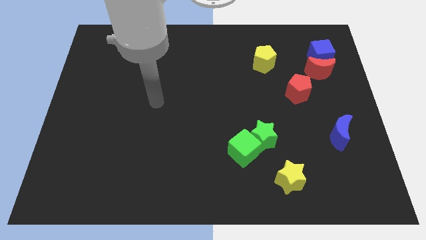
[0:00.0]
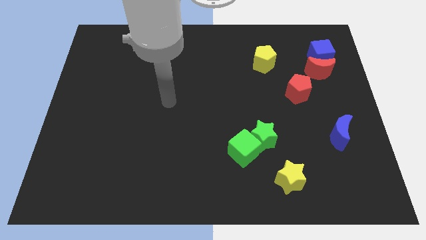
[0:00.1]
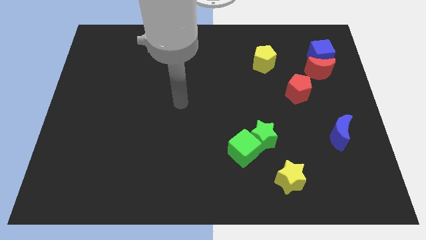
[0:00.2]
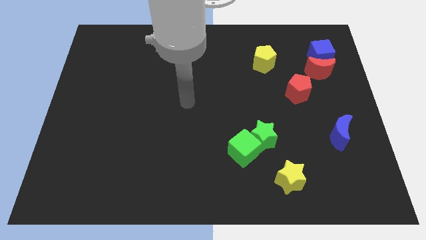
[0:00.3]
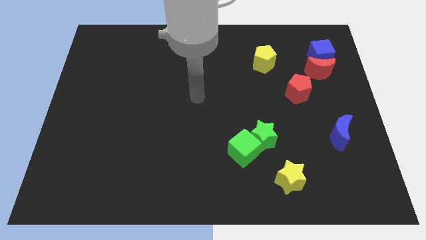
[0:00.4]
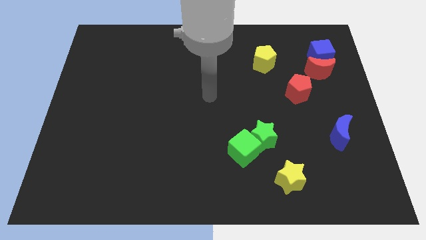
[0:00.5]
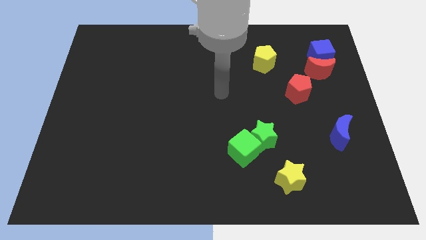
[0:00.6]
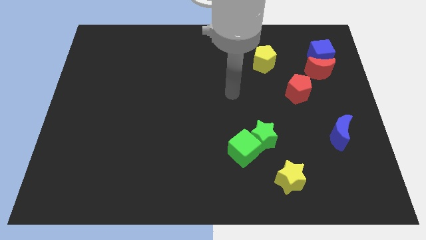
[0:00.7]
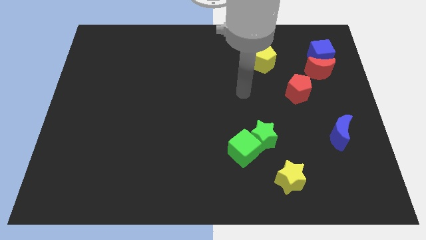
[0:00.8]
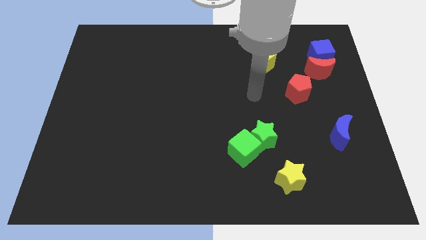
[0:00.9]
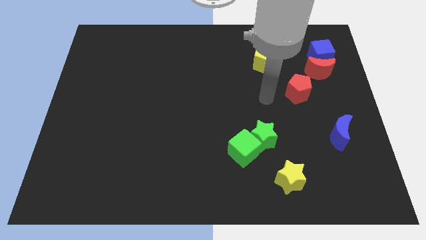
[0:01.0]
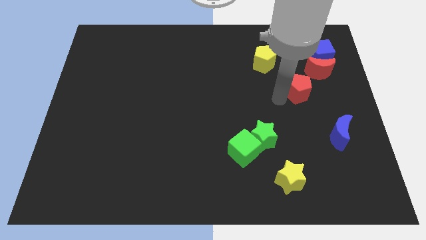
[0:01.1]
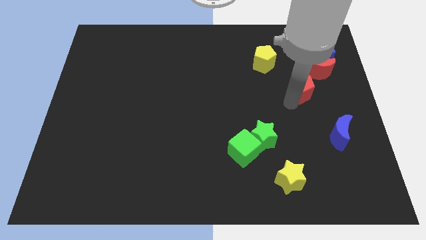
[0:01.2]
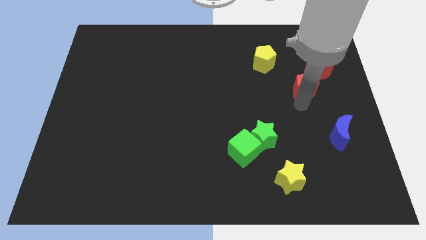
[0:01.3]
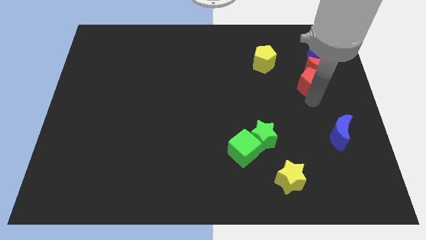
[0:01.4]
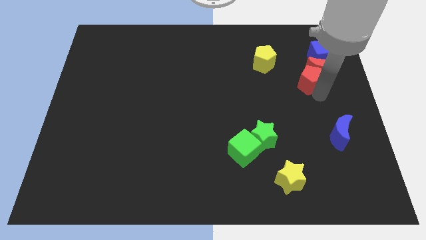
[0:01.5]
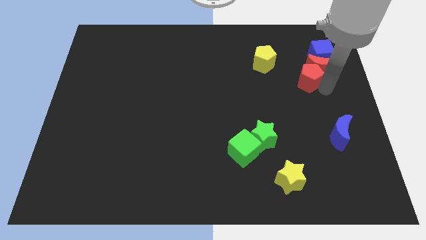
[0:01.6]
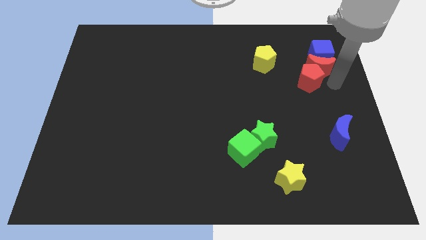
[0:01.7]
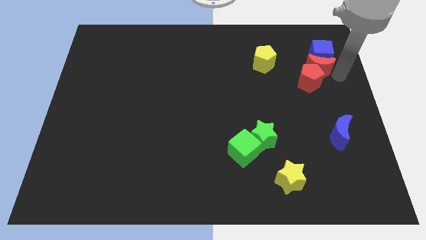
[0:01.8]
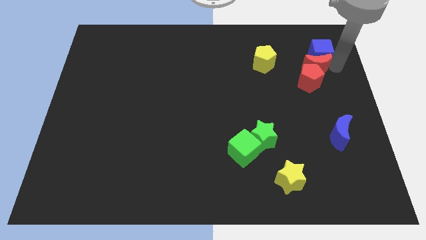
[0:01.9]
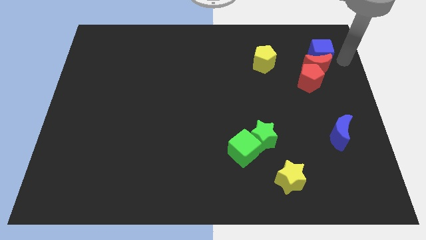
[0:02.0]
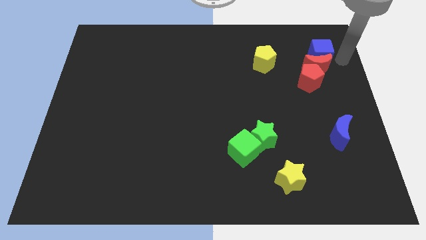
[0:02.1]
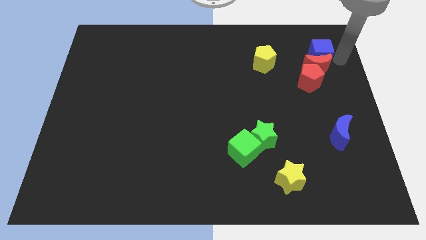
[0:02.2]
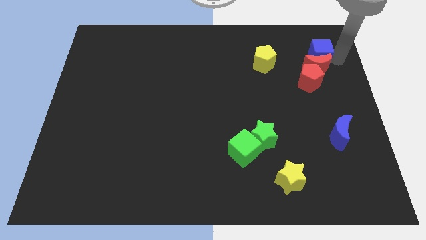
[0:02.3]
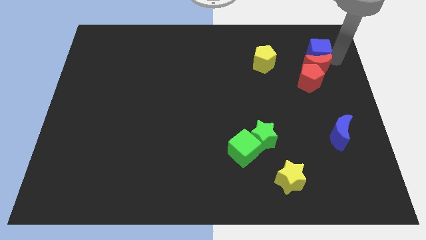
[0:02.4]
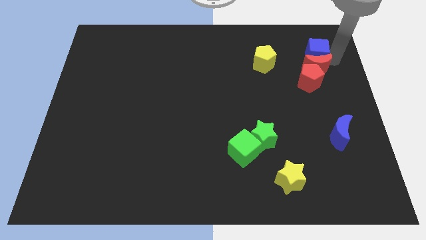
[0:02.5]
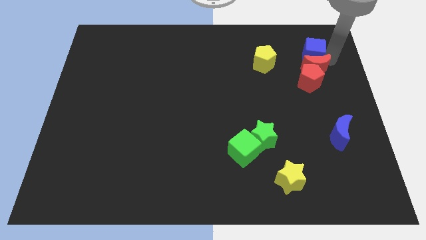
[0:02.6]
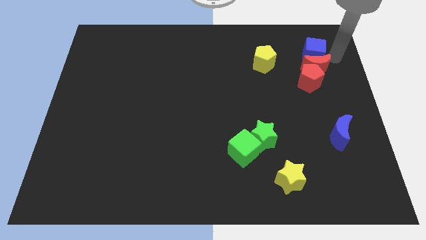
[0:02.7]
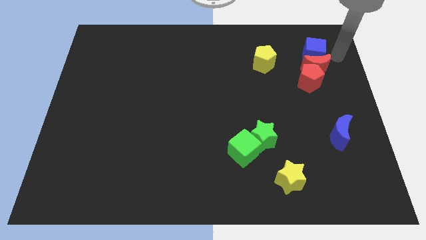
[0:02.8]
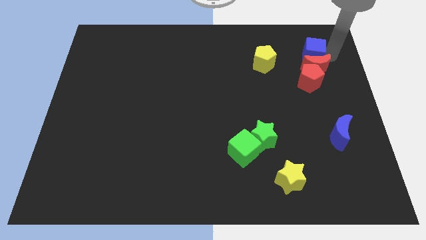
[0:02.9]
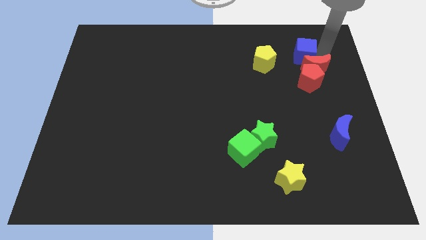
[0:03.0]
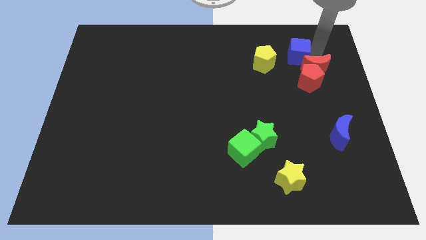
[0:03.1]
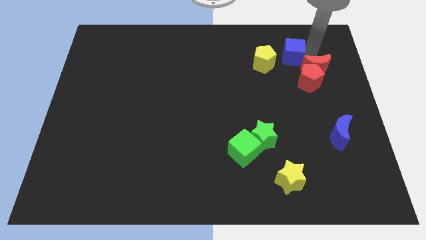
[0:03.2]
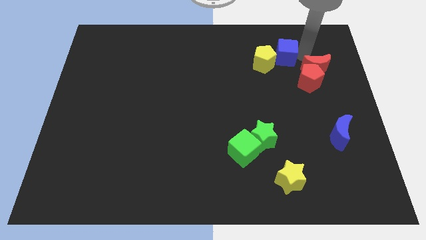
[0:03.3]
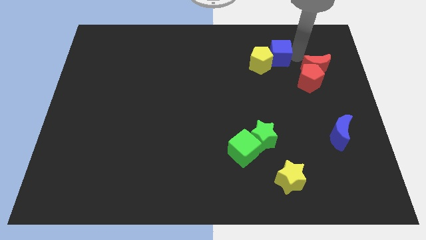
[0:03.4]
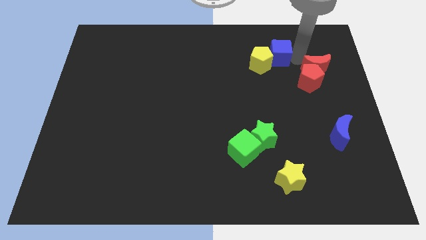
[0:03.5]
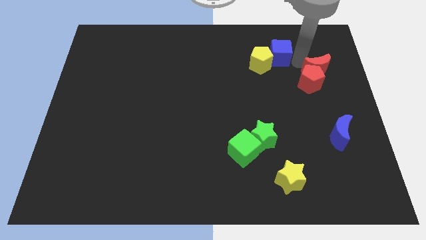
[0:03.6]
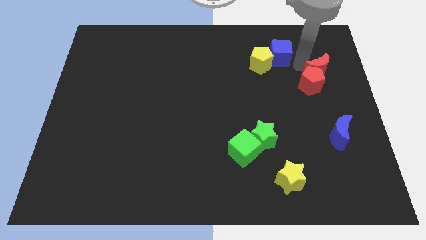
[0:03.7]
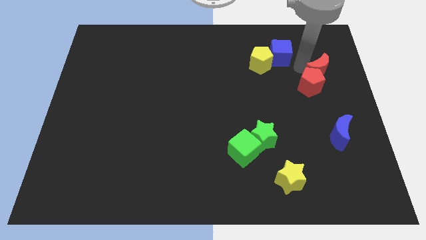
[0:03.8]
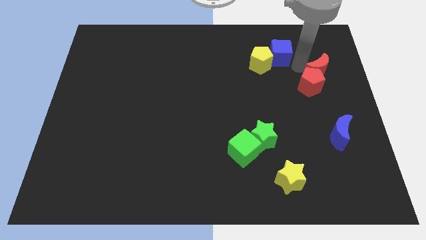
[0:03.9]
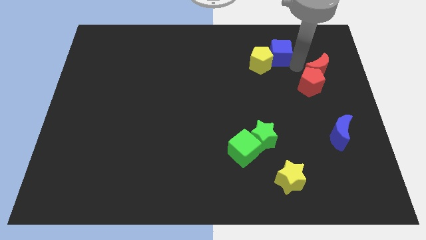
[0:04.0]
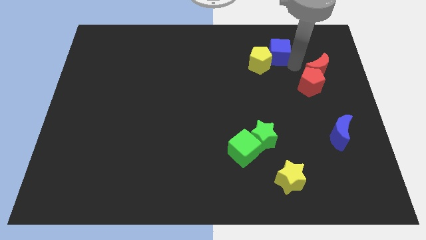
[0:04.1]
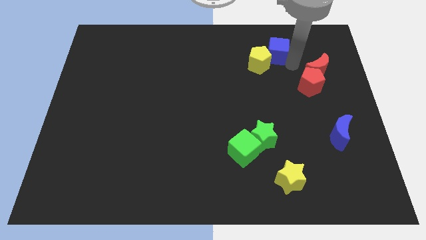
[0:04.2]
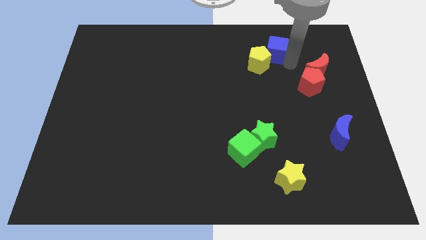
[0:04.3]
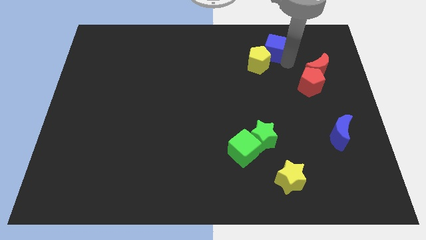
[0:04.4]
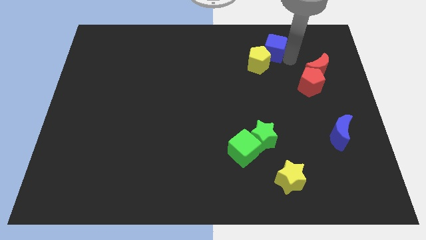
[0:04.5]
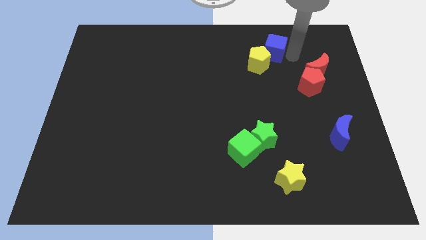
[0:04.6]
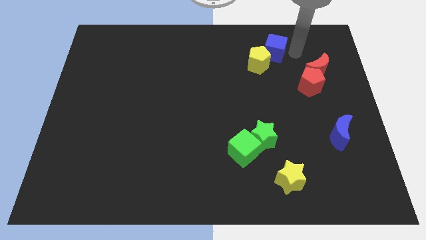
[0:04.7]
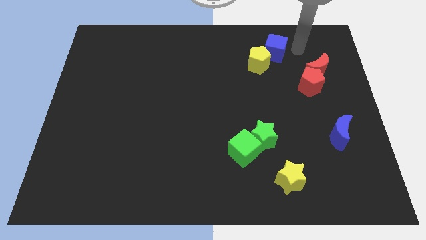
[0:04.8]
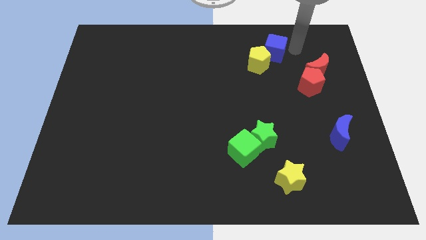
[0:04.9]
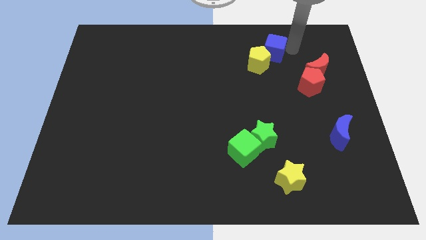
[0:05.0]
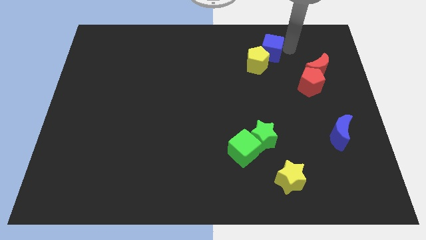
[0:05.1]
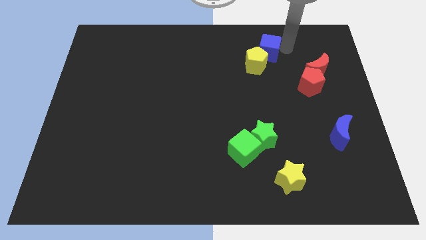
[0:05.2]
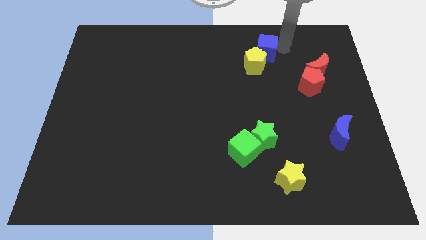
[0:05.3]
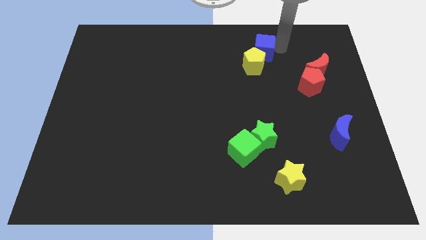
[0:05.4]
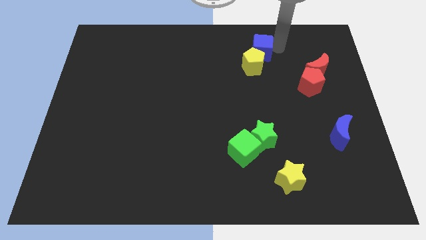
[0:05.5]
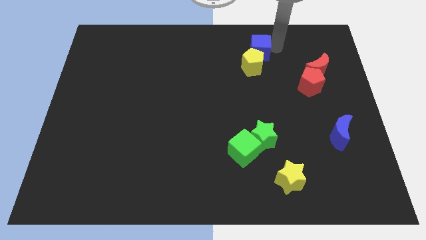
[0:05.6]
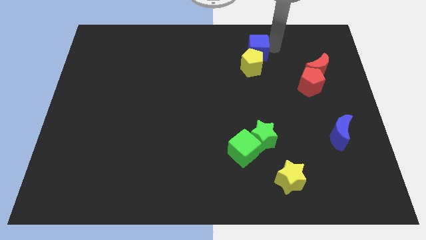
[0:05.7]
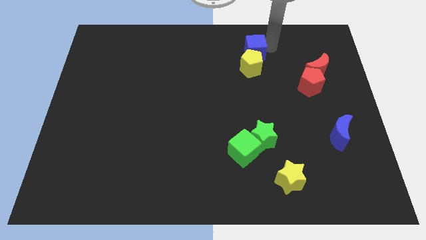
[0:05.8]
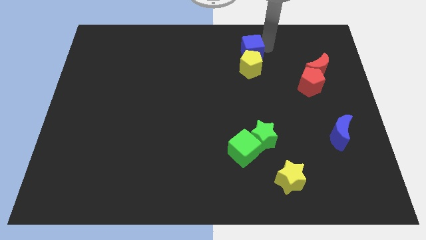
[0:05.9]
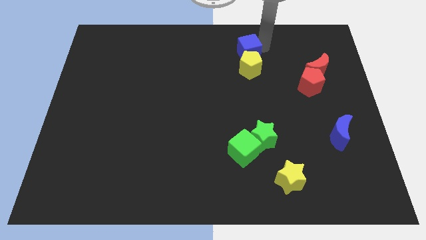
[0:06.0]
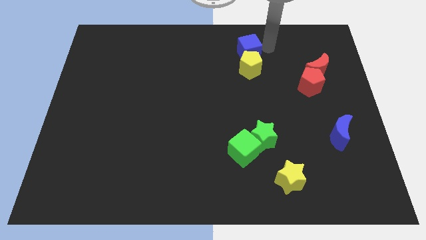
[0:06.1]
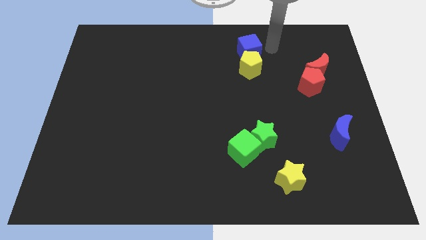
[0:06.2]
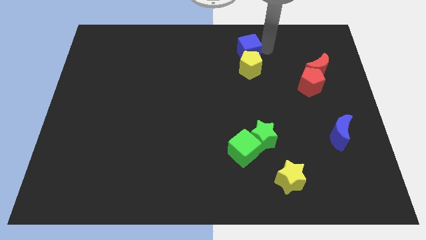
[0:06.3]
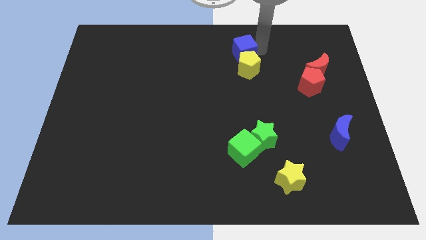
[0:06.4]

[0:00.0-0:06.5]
push the blue cube to the left

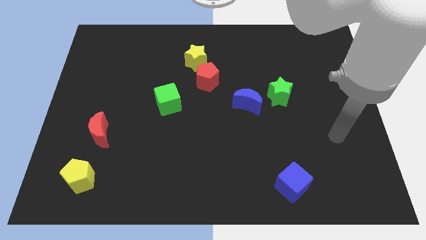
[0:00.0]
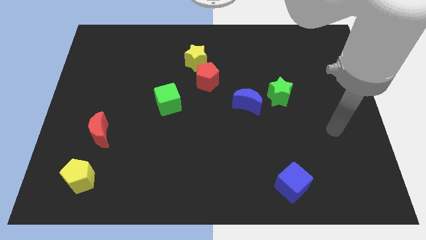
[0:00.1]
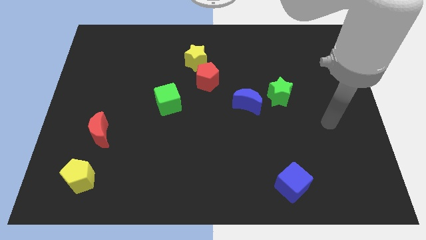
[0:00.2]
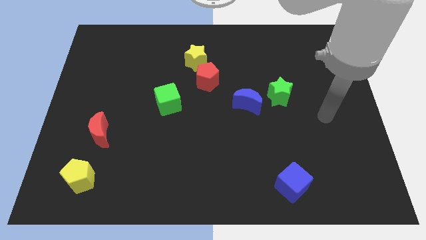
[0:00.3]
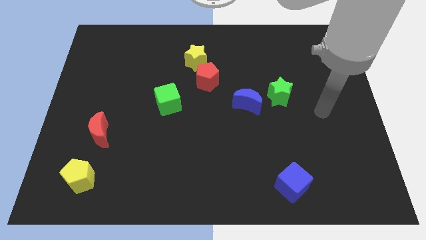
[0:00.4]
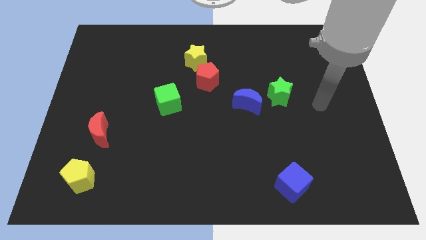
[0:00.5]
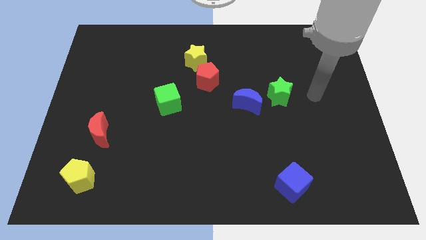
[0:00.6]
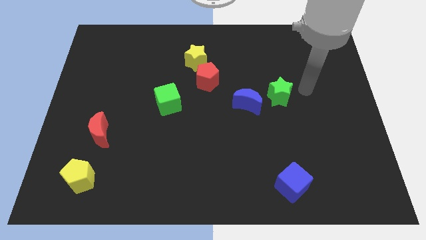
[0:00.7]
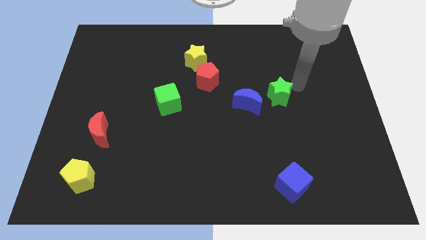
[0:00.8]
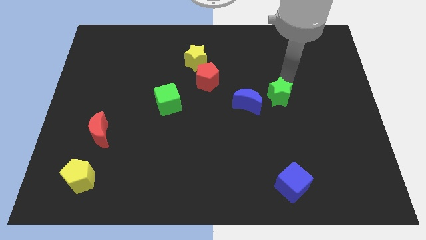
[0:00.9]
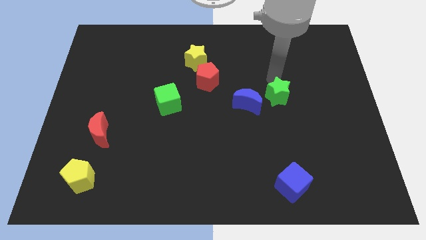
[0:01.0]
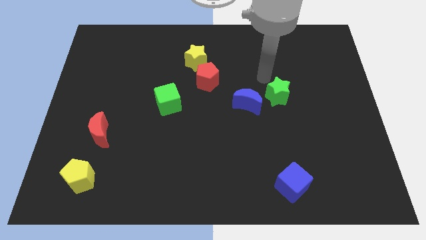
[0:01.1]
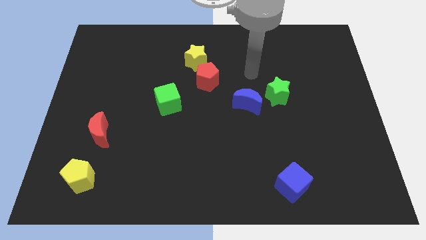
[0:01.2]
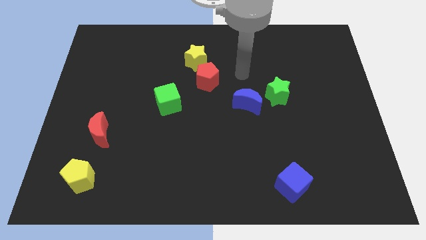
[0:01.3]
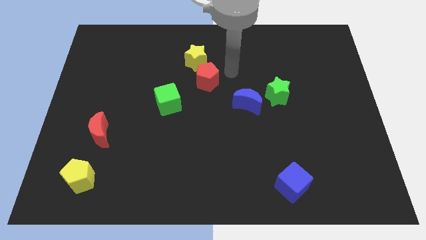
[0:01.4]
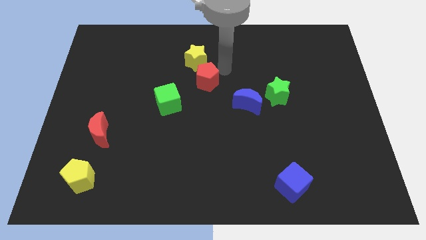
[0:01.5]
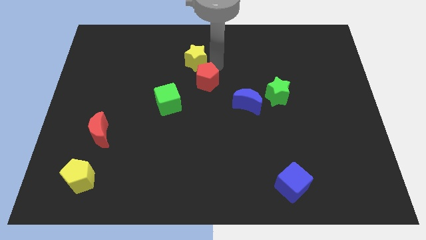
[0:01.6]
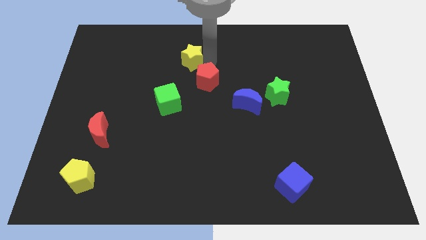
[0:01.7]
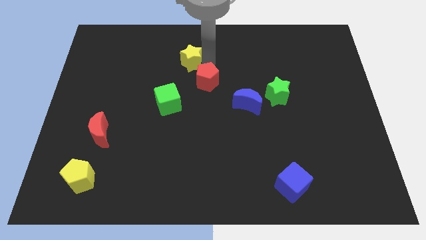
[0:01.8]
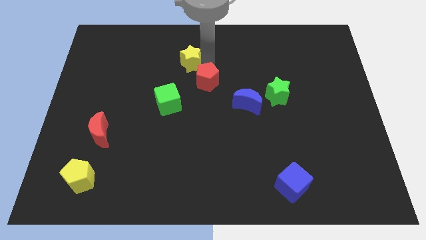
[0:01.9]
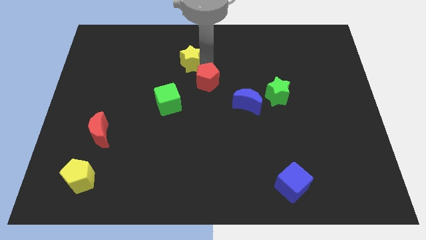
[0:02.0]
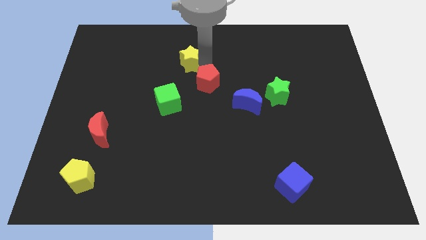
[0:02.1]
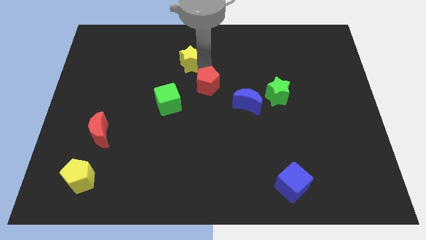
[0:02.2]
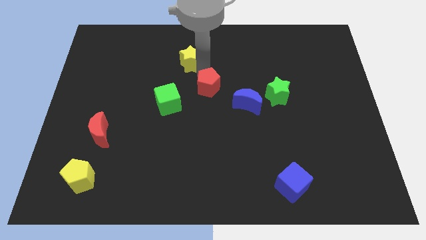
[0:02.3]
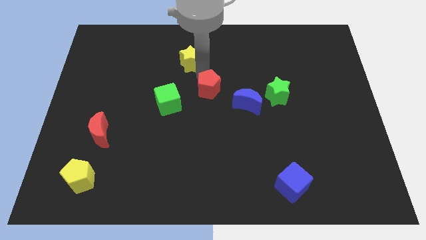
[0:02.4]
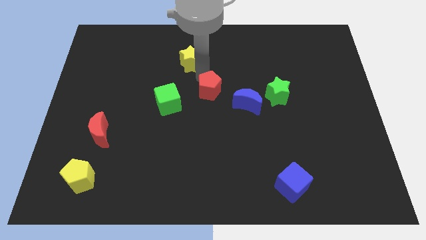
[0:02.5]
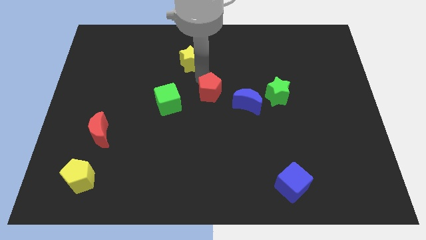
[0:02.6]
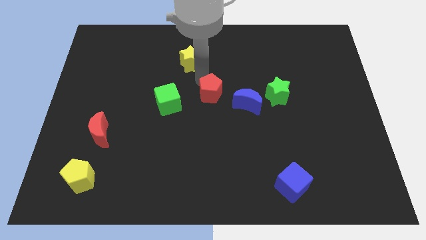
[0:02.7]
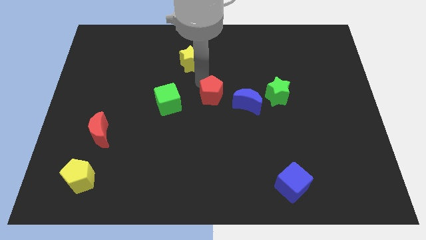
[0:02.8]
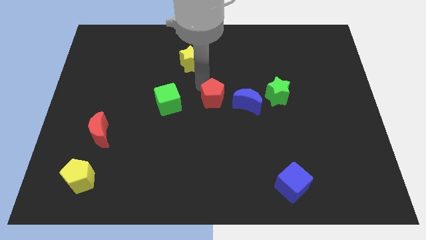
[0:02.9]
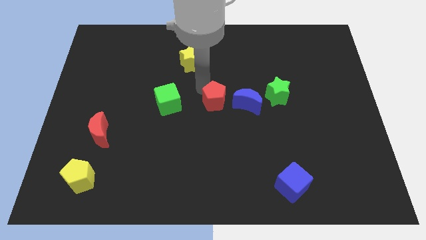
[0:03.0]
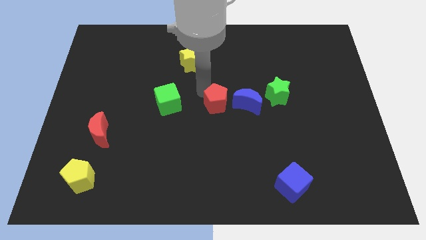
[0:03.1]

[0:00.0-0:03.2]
push the red pentagon downwards slightly
